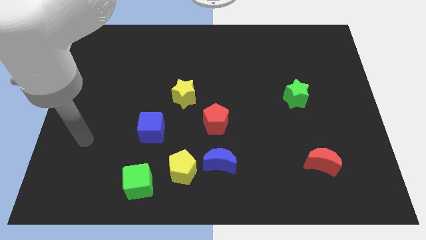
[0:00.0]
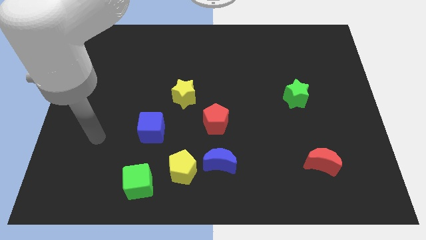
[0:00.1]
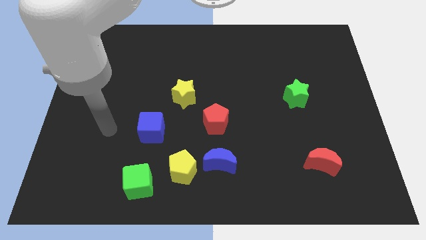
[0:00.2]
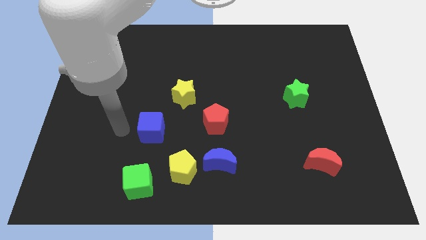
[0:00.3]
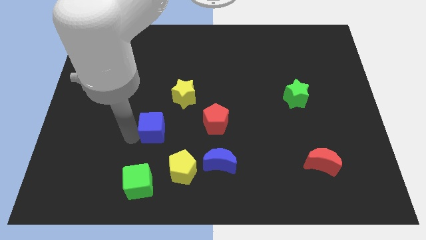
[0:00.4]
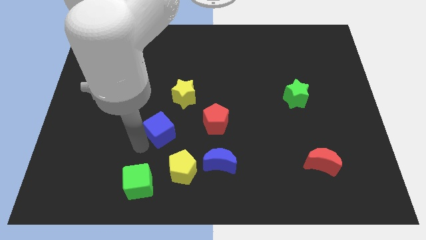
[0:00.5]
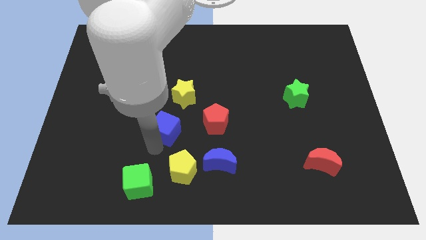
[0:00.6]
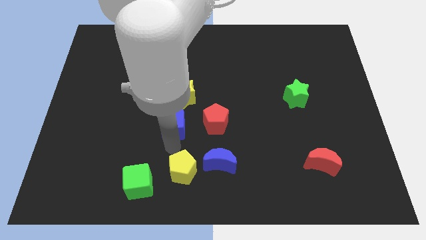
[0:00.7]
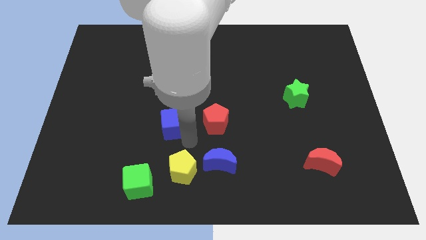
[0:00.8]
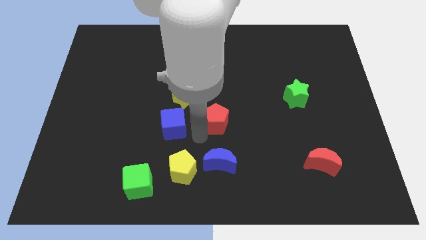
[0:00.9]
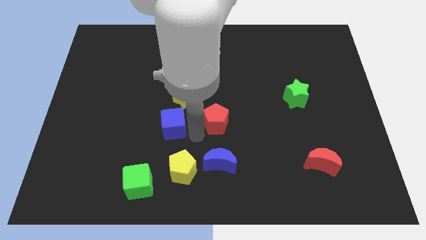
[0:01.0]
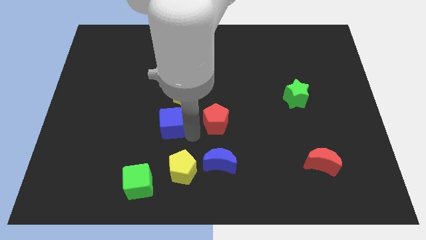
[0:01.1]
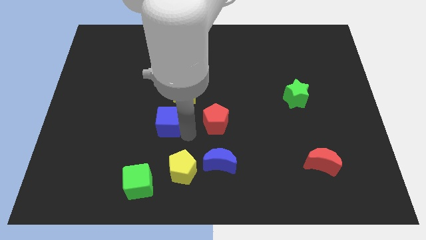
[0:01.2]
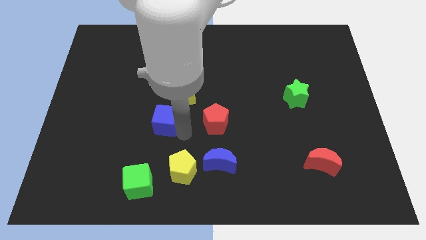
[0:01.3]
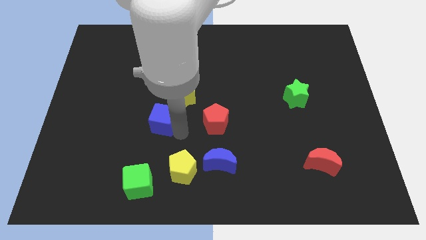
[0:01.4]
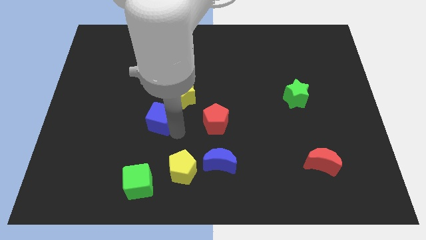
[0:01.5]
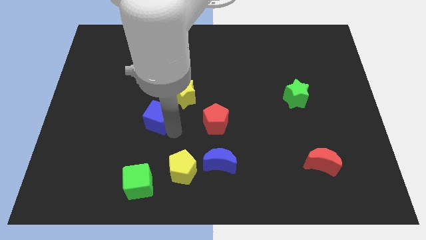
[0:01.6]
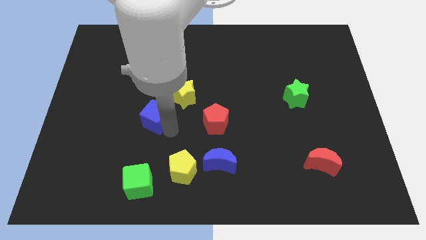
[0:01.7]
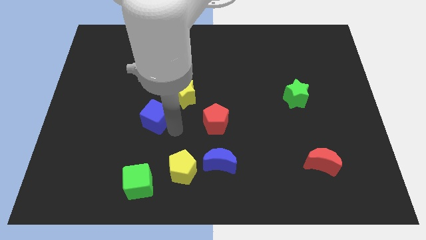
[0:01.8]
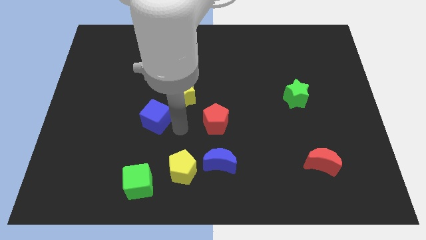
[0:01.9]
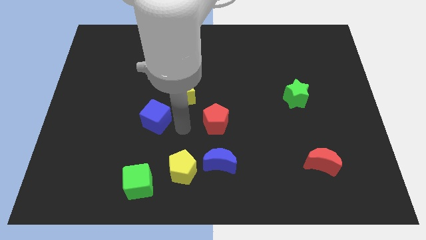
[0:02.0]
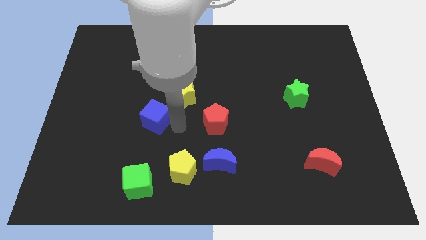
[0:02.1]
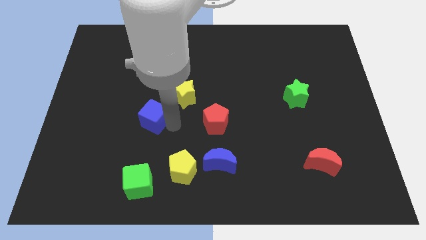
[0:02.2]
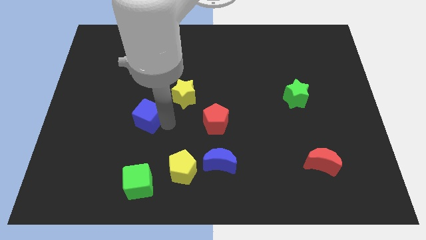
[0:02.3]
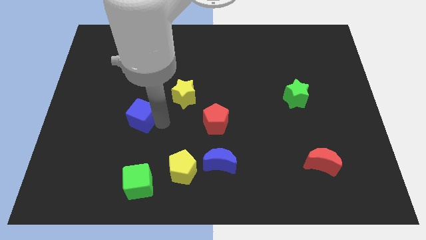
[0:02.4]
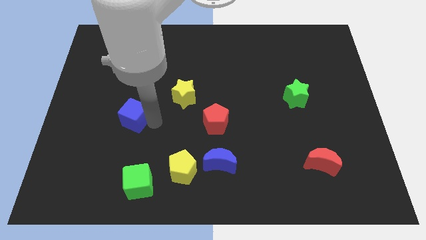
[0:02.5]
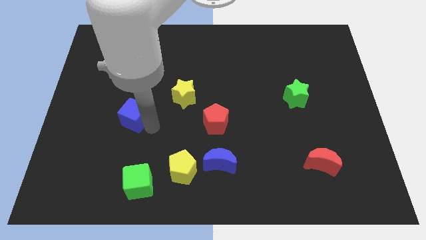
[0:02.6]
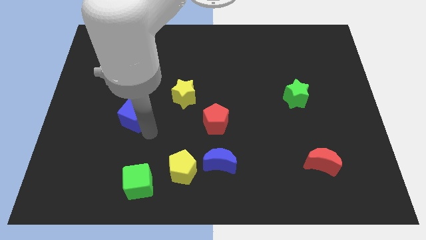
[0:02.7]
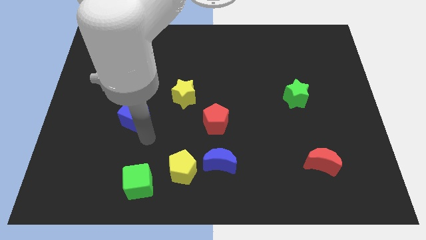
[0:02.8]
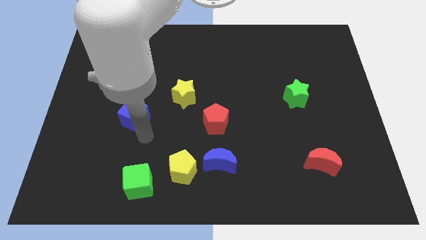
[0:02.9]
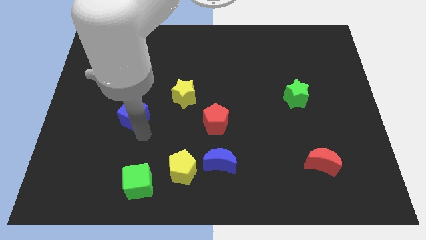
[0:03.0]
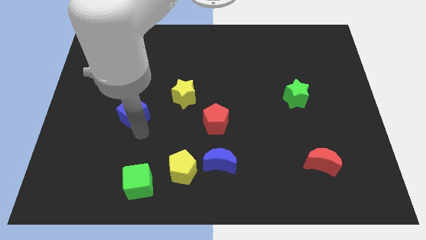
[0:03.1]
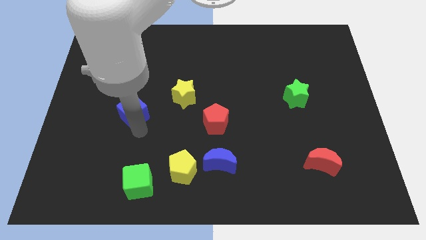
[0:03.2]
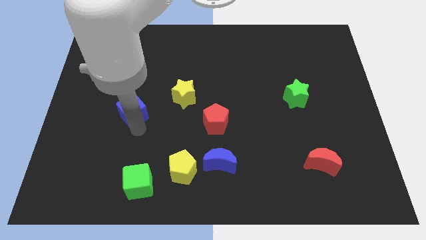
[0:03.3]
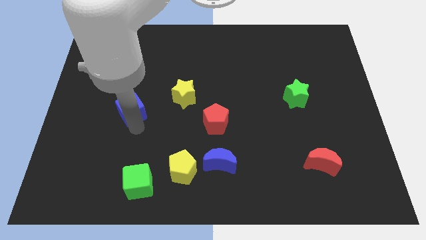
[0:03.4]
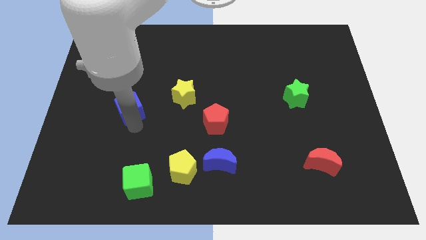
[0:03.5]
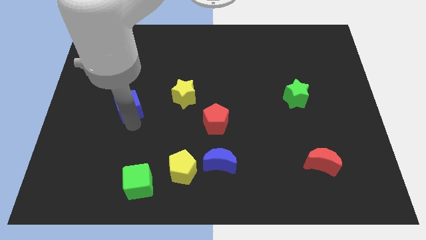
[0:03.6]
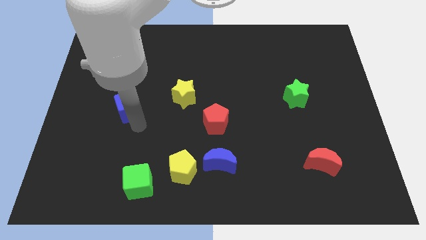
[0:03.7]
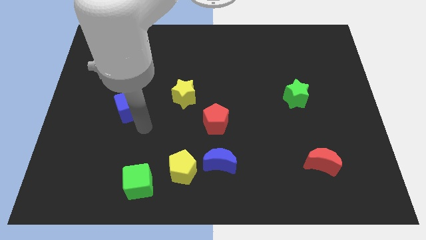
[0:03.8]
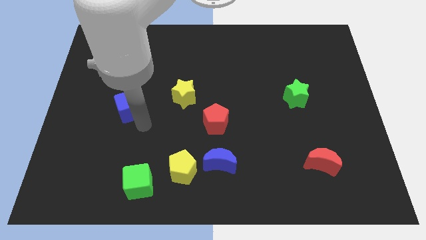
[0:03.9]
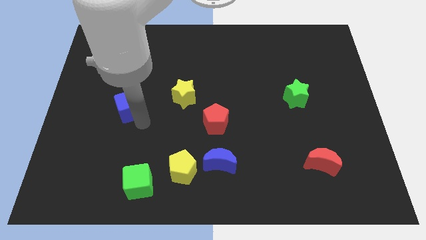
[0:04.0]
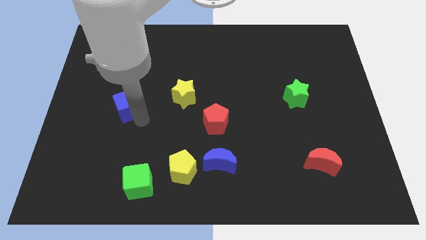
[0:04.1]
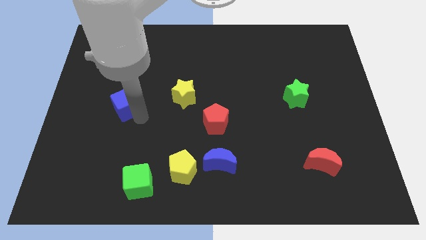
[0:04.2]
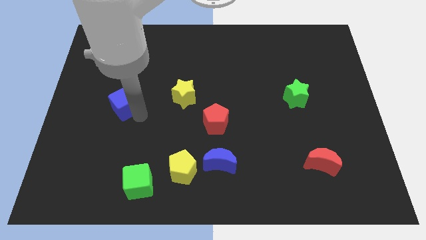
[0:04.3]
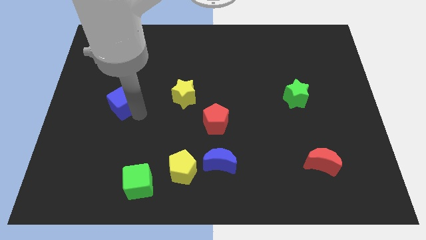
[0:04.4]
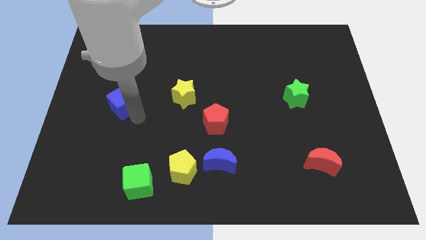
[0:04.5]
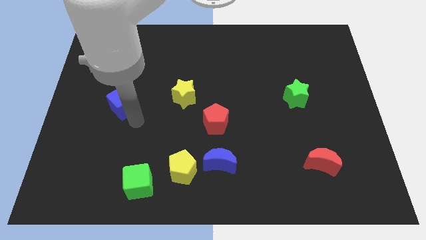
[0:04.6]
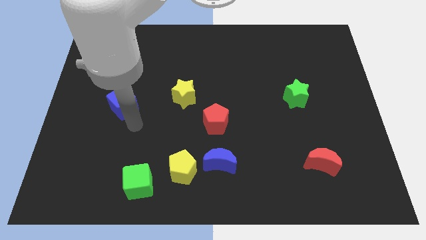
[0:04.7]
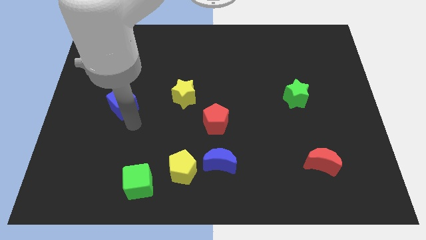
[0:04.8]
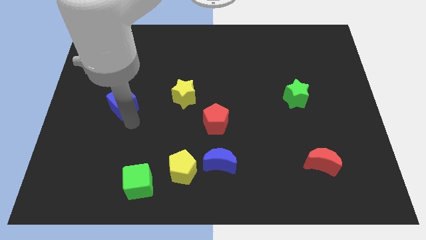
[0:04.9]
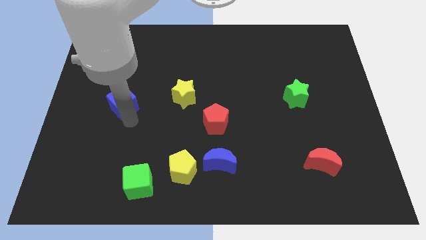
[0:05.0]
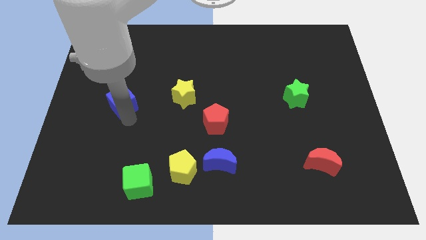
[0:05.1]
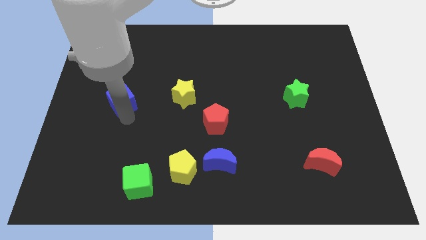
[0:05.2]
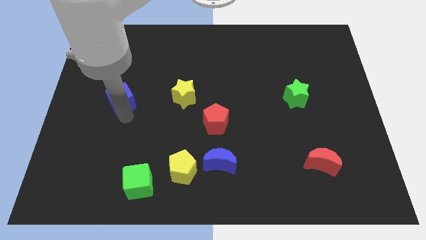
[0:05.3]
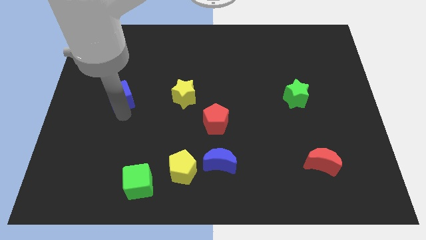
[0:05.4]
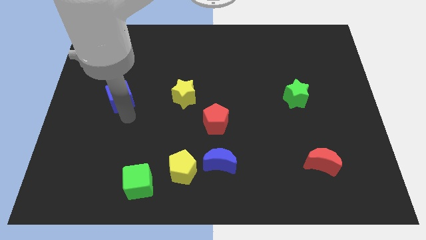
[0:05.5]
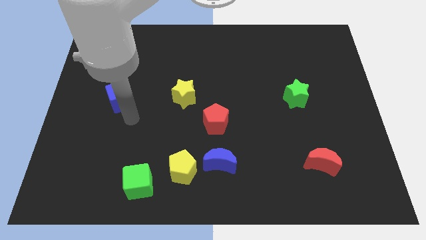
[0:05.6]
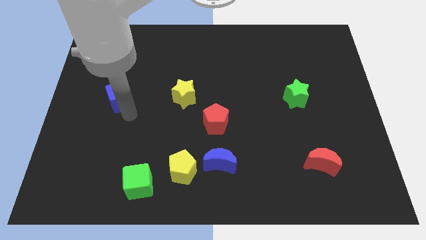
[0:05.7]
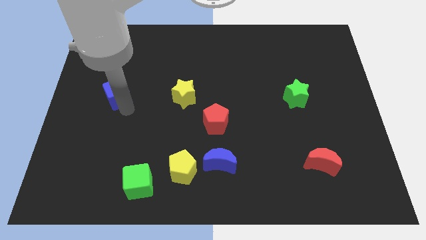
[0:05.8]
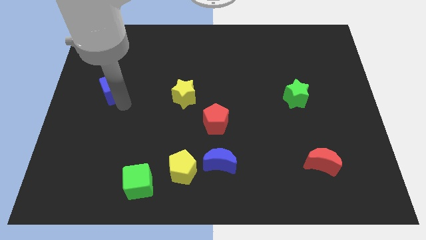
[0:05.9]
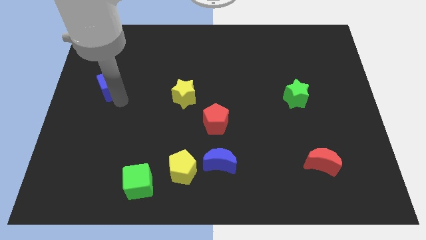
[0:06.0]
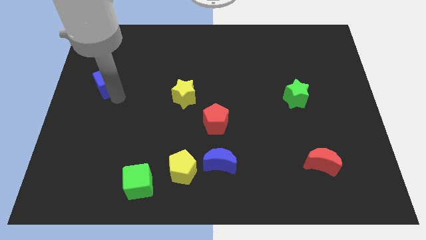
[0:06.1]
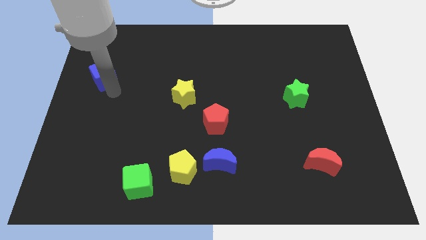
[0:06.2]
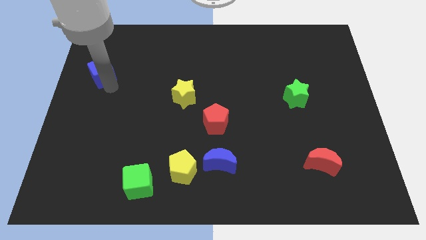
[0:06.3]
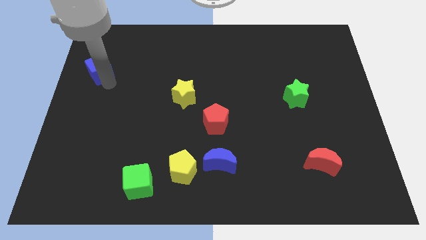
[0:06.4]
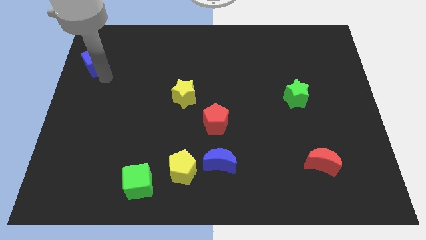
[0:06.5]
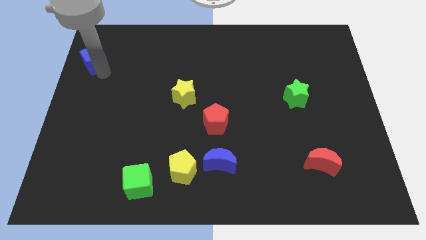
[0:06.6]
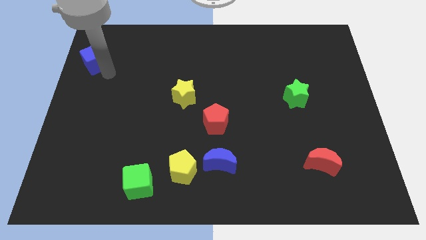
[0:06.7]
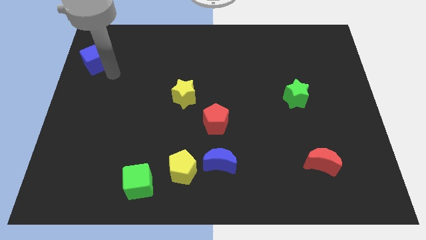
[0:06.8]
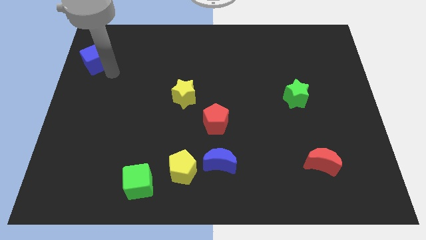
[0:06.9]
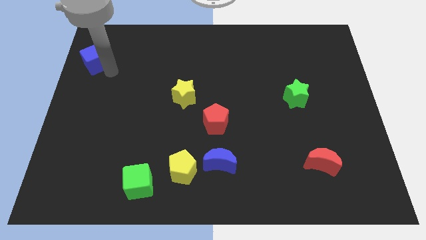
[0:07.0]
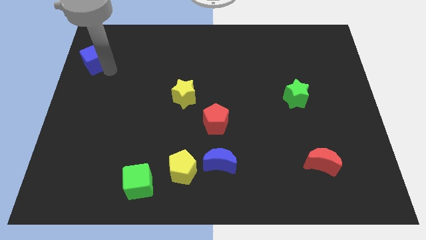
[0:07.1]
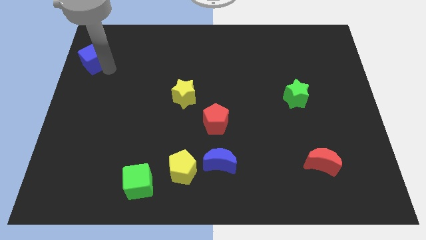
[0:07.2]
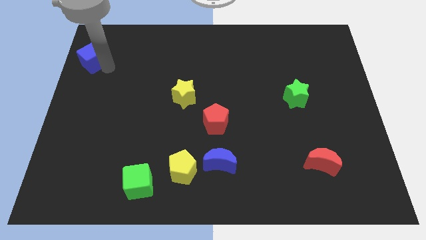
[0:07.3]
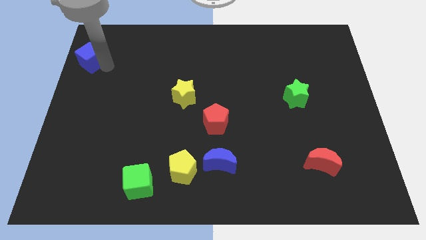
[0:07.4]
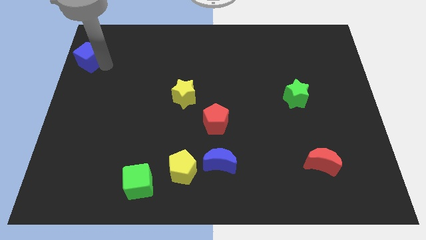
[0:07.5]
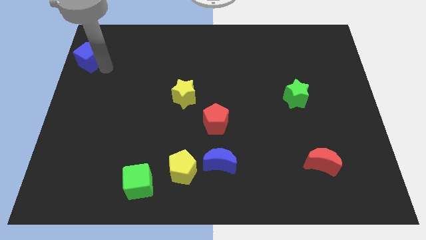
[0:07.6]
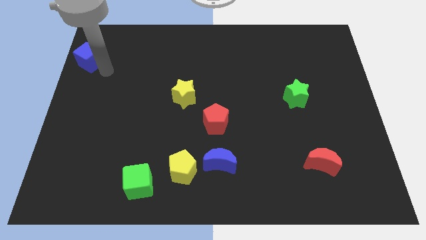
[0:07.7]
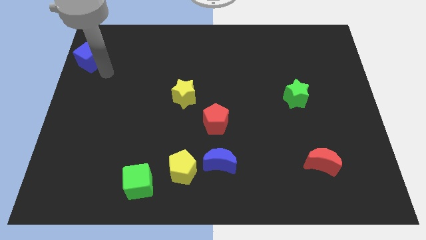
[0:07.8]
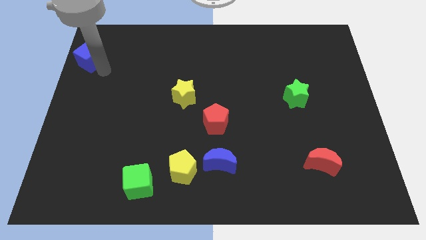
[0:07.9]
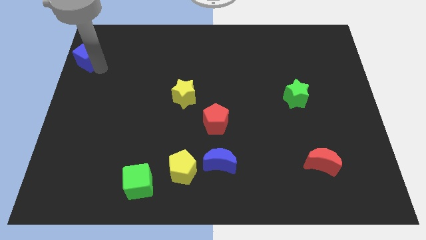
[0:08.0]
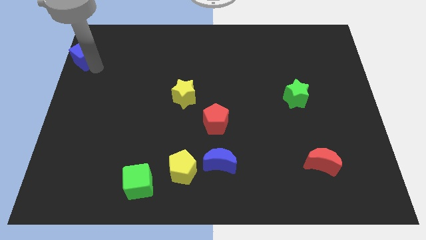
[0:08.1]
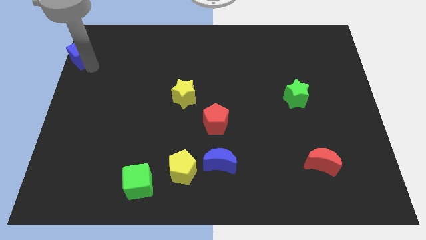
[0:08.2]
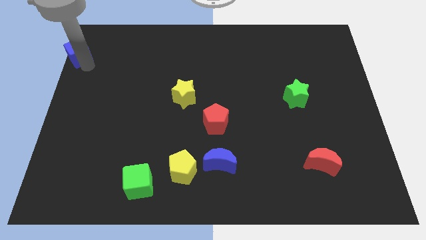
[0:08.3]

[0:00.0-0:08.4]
put the blue cube to the upper left corner
